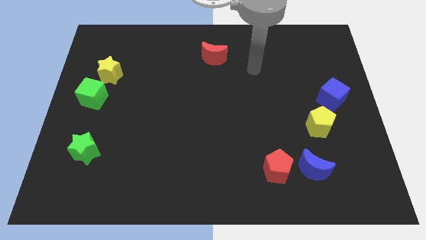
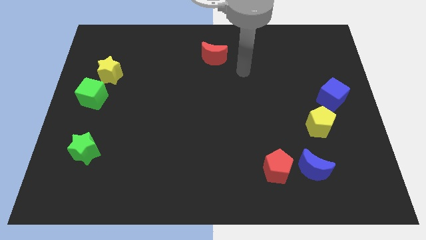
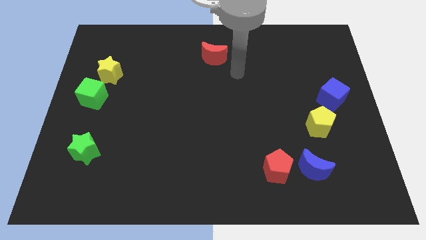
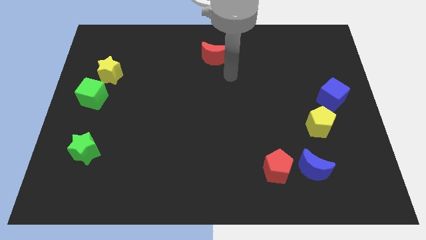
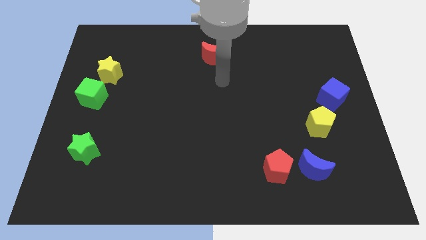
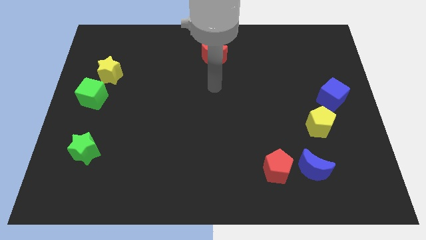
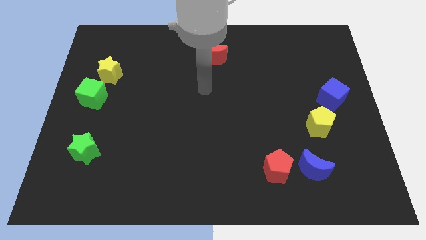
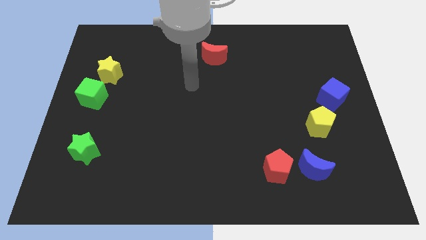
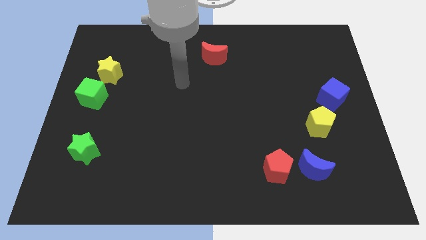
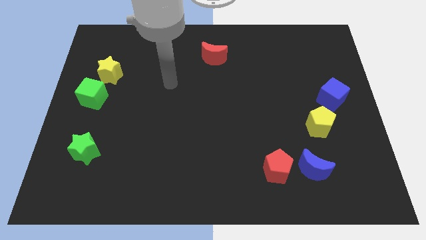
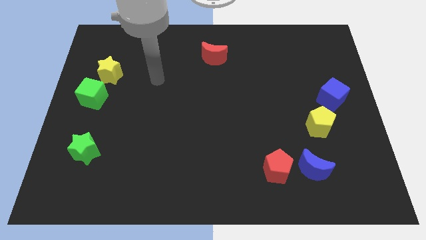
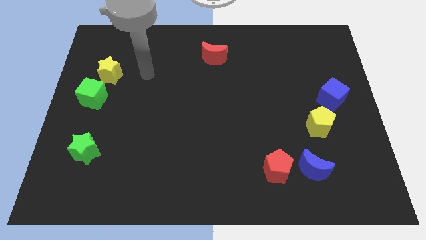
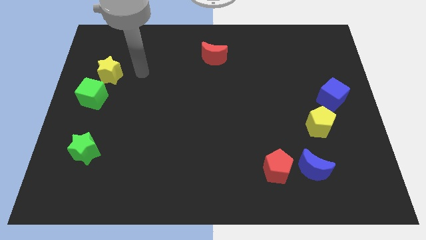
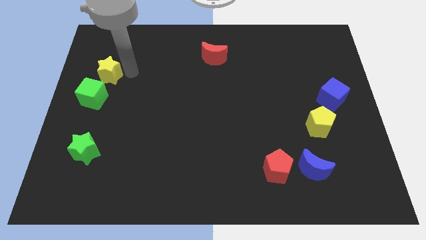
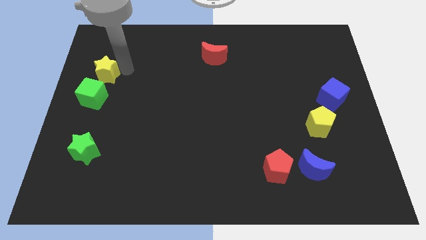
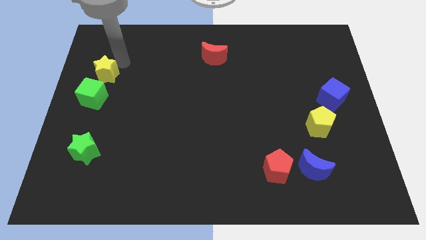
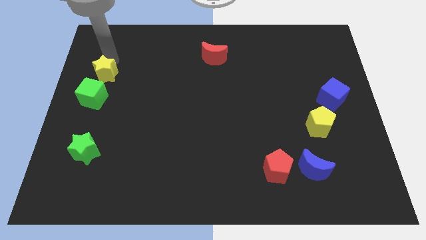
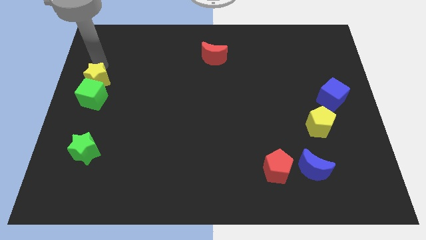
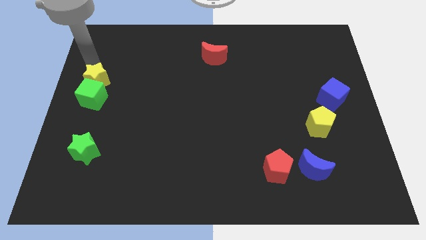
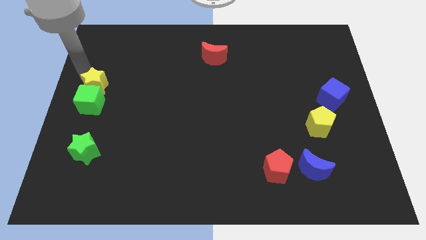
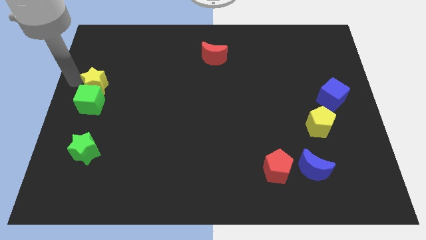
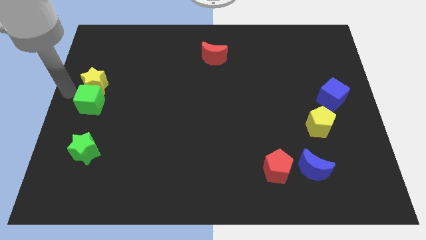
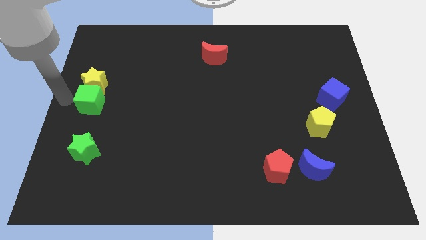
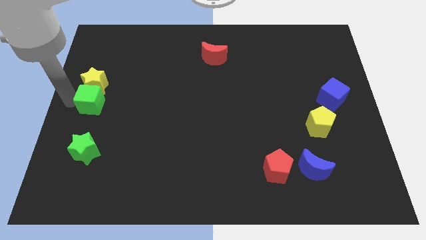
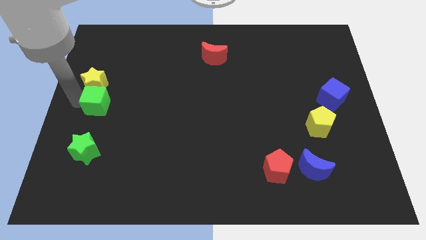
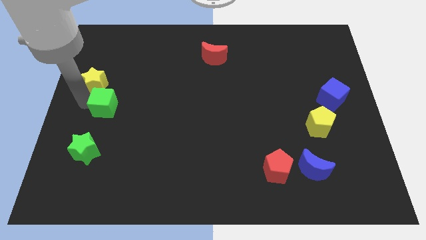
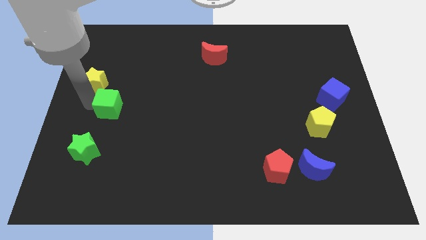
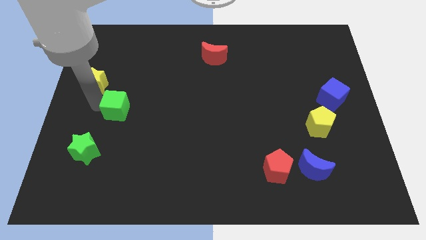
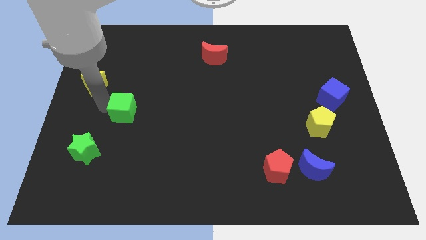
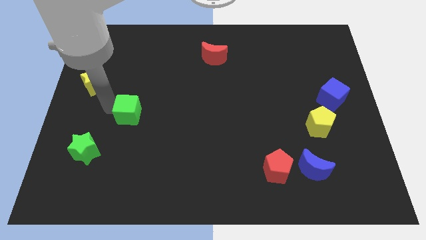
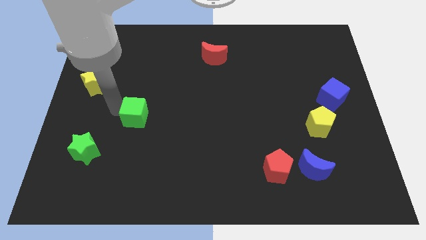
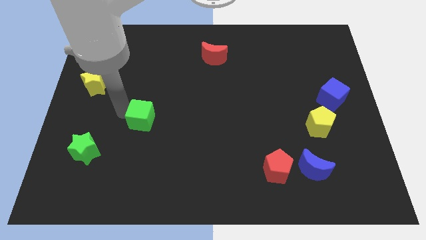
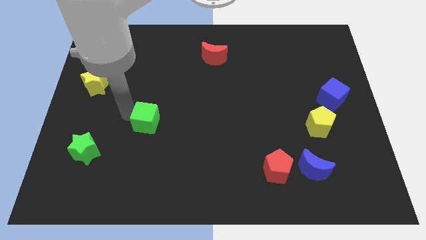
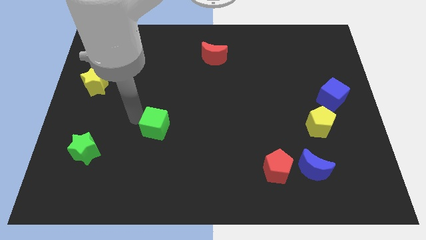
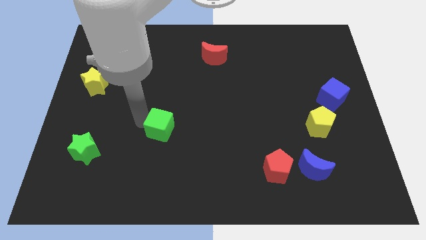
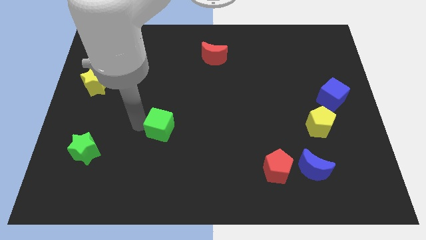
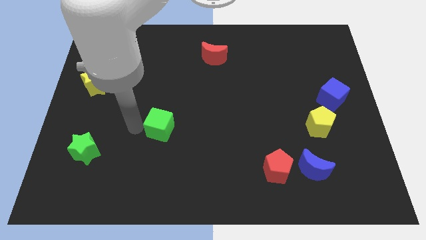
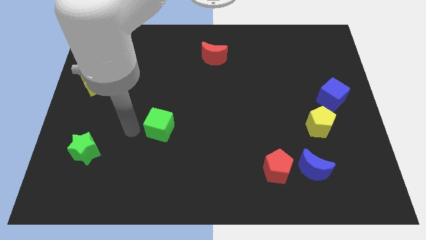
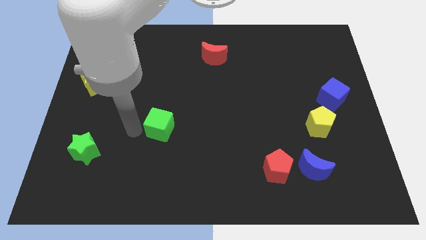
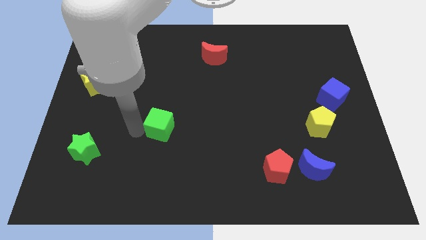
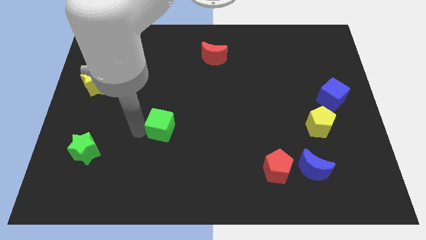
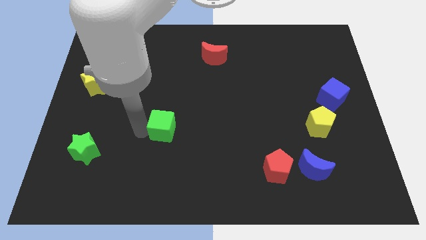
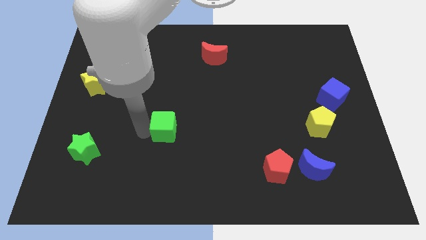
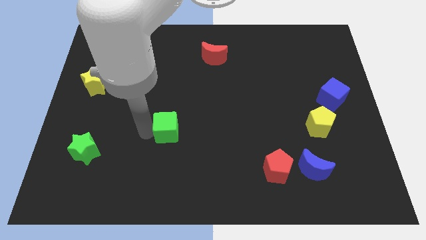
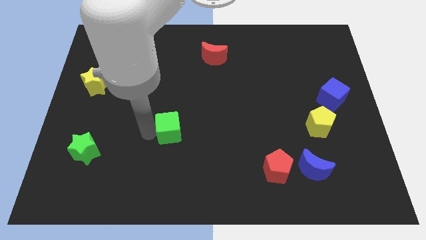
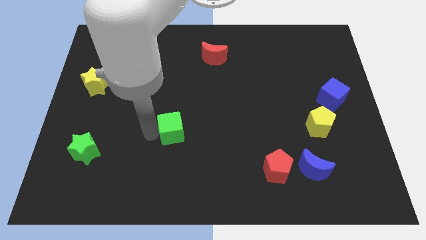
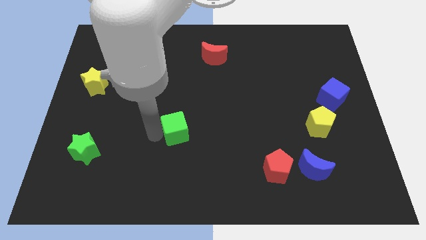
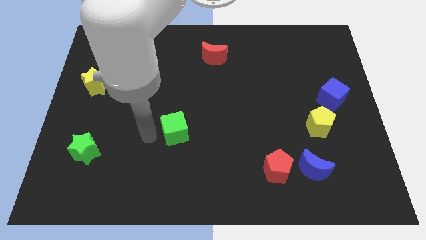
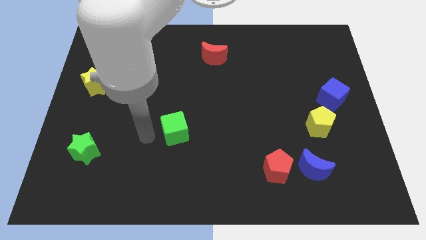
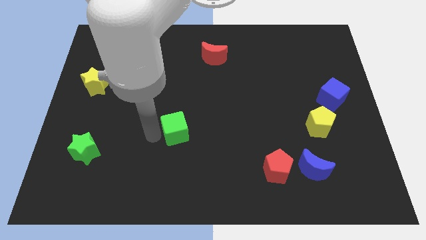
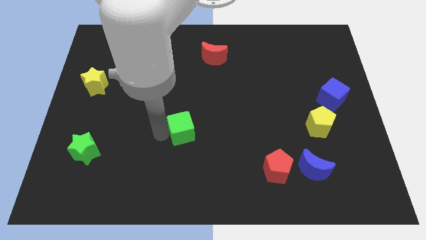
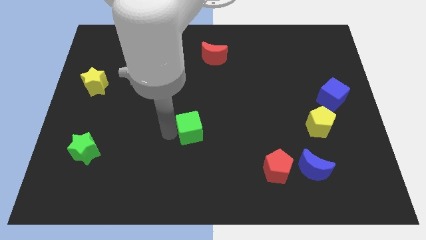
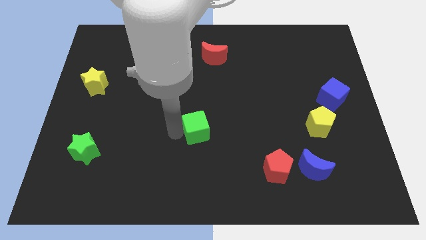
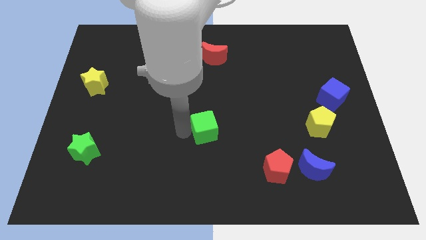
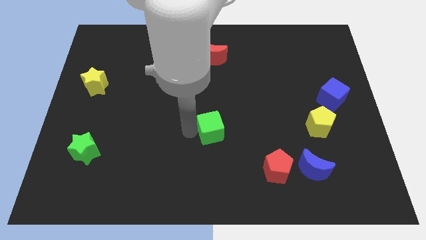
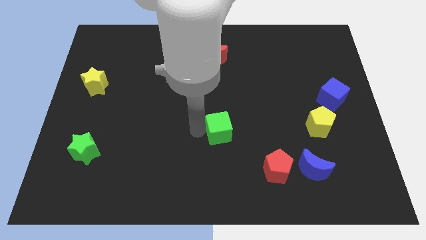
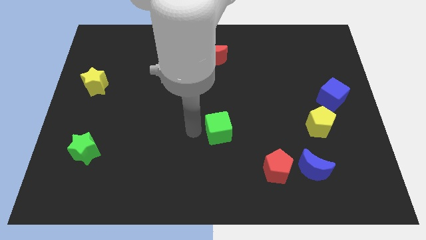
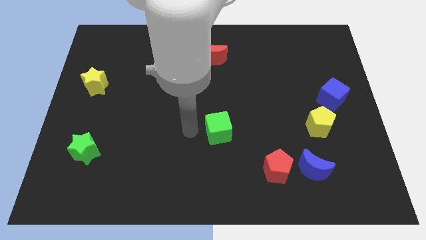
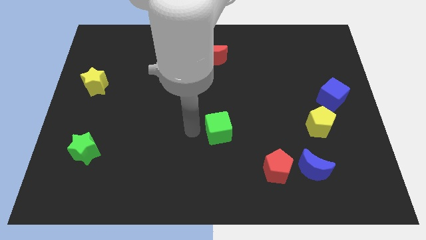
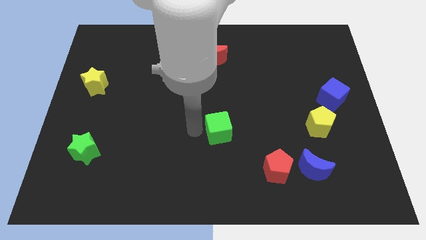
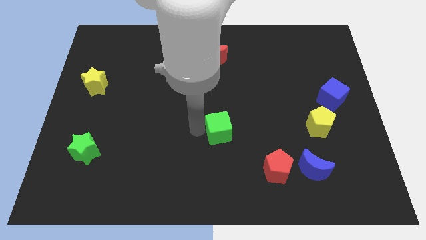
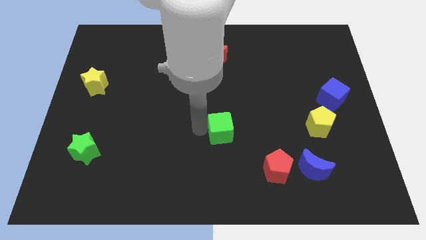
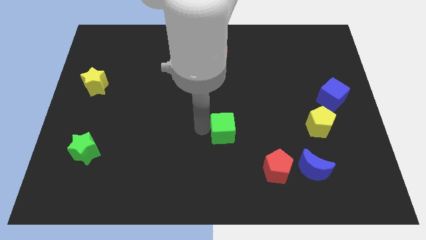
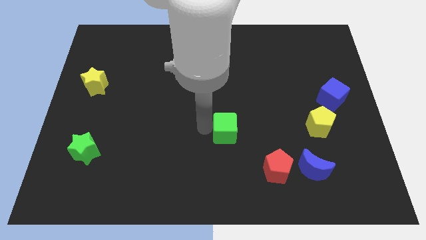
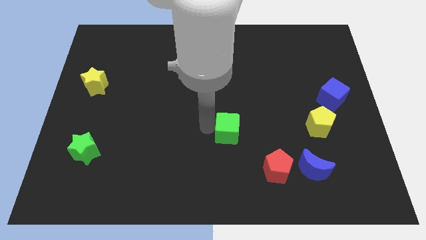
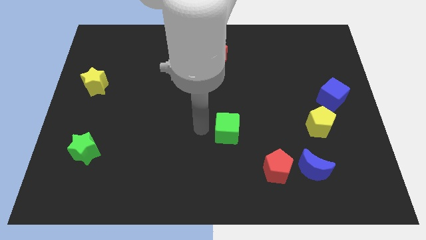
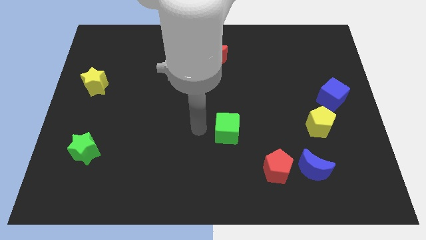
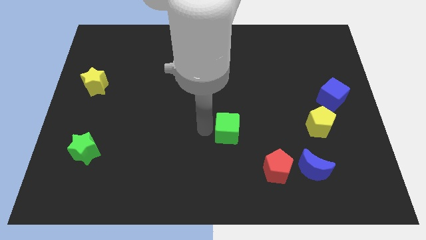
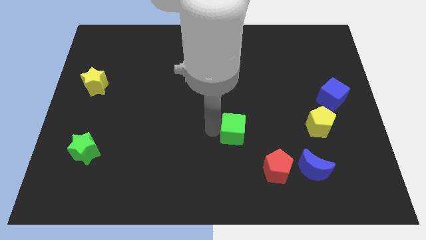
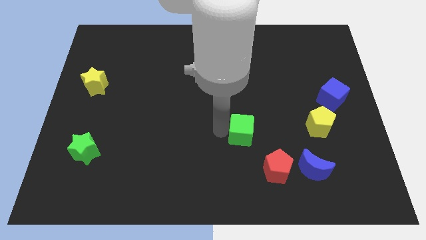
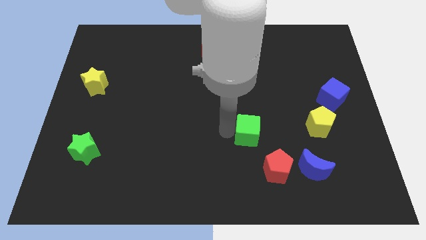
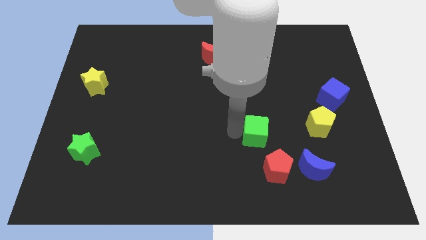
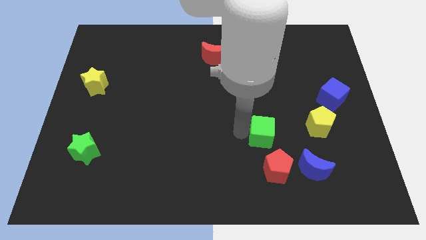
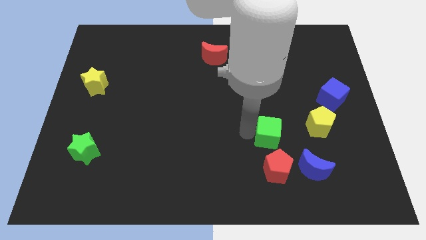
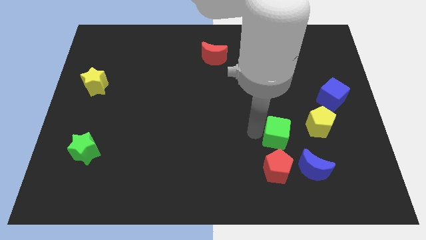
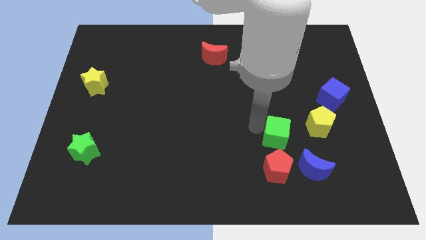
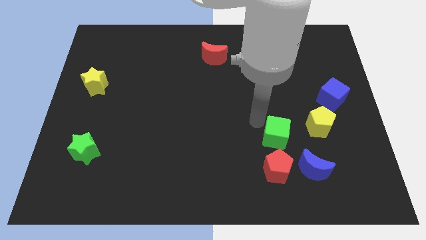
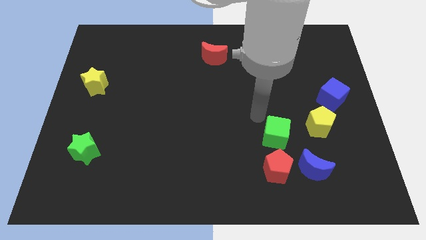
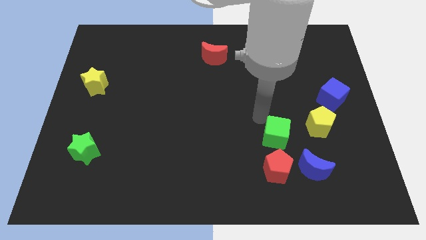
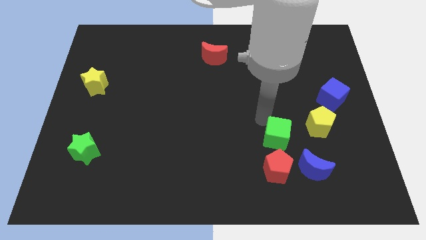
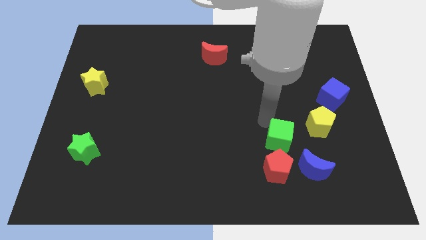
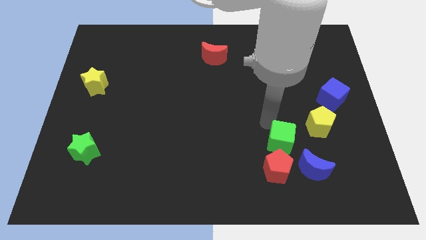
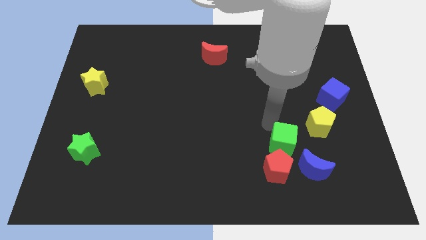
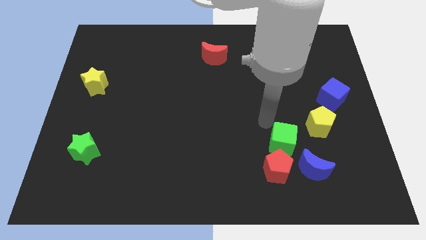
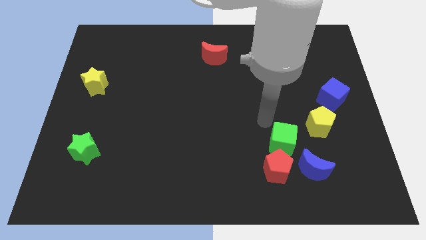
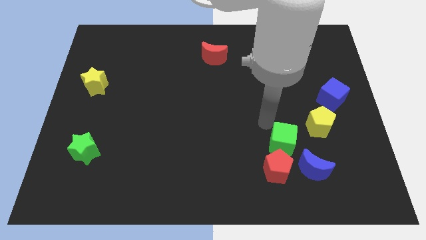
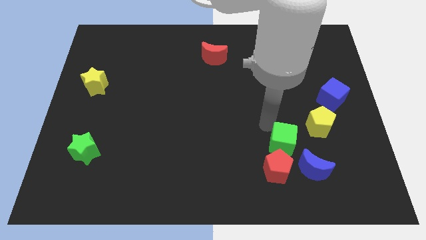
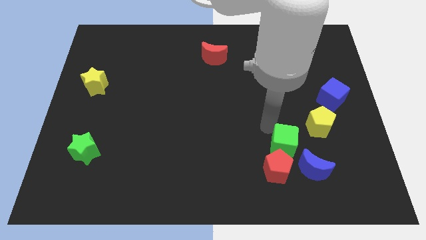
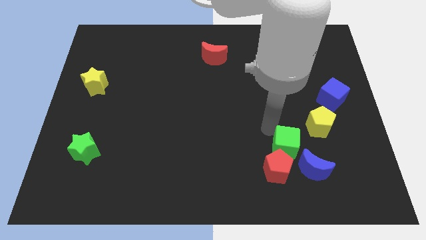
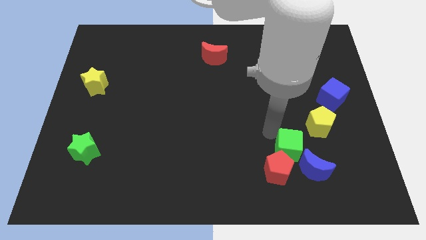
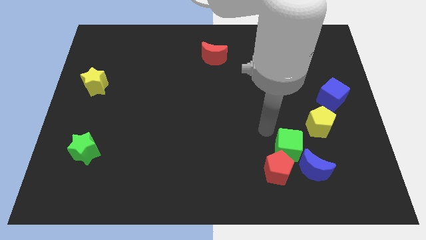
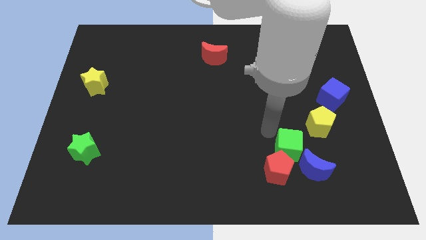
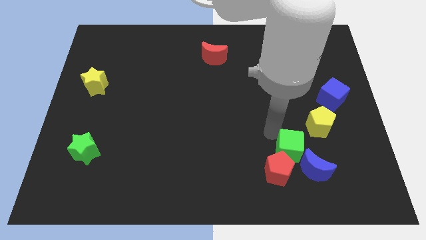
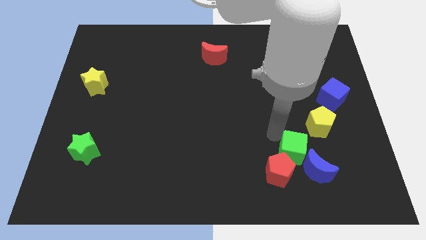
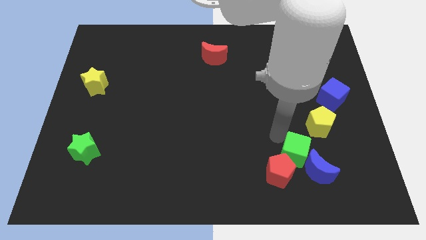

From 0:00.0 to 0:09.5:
slide the green cube to the blue moon
